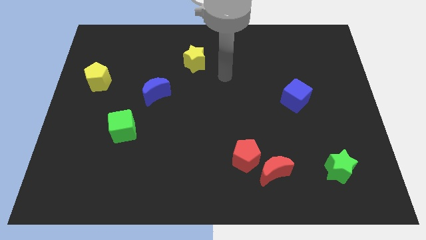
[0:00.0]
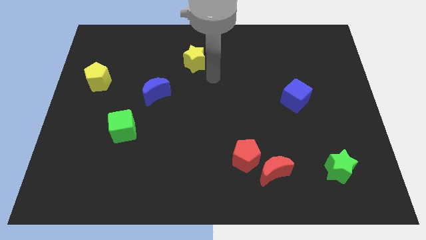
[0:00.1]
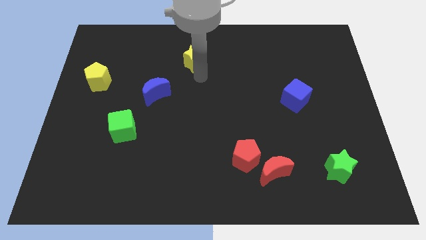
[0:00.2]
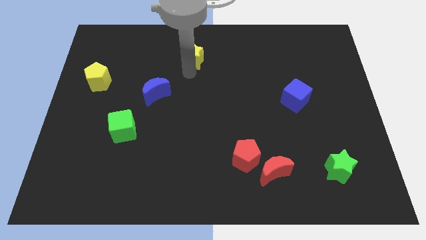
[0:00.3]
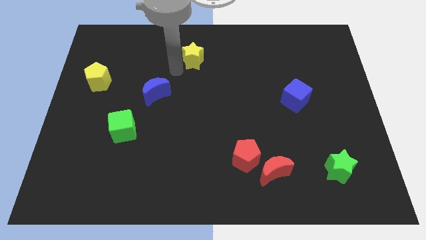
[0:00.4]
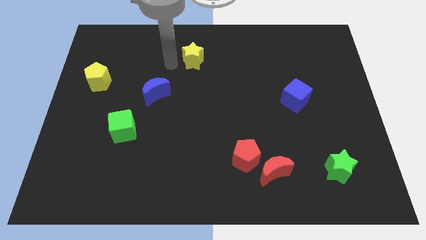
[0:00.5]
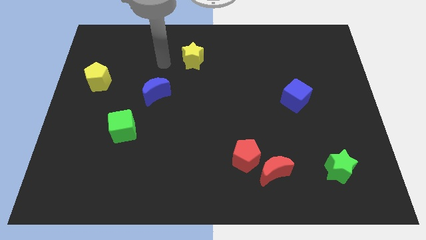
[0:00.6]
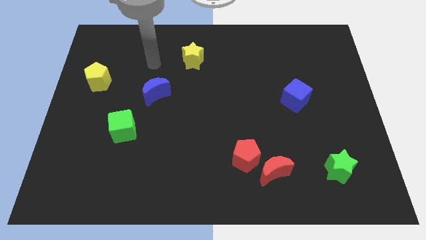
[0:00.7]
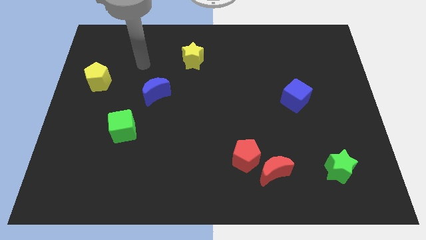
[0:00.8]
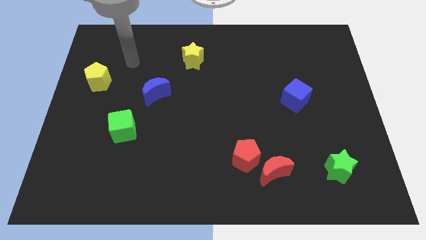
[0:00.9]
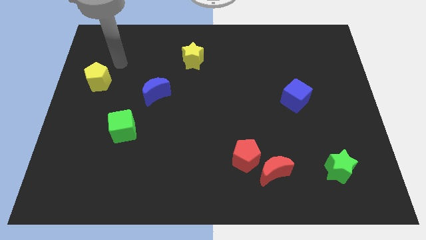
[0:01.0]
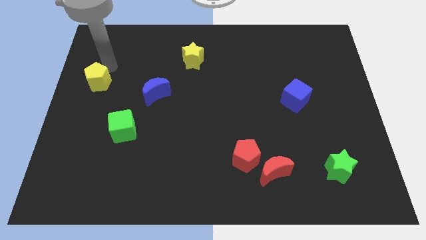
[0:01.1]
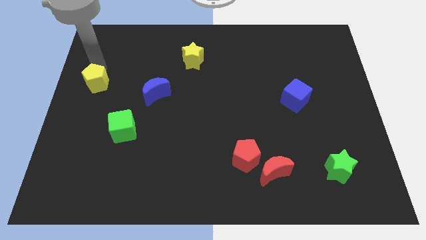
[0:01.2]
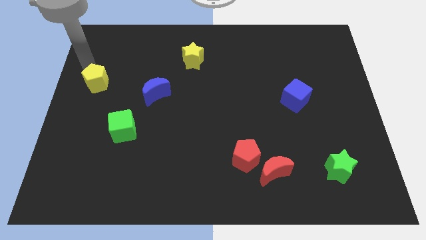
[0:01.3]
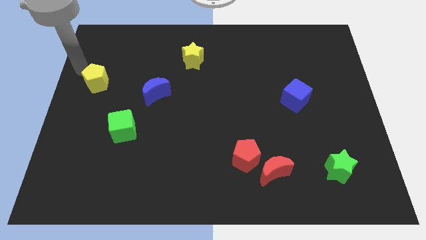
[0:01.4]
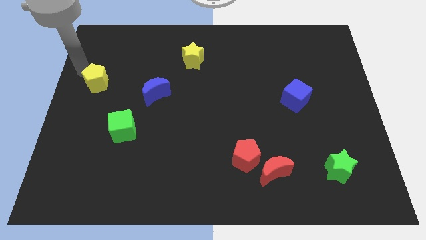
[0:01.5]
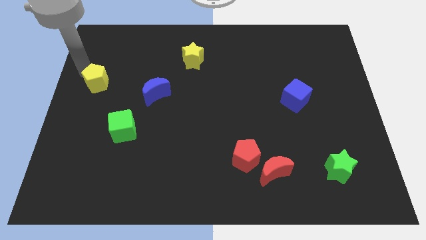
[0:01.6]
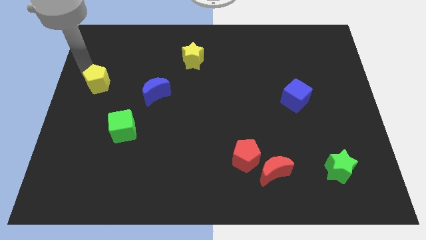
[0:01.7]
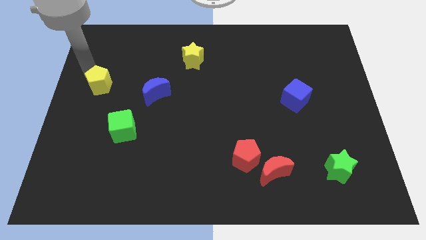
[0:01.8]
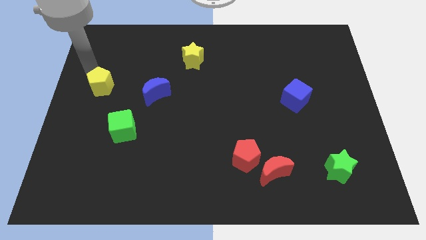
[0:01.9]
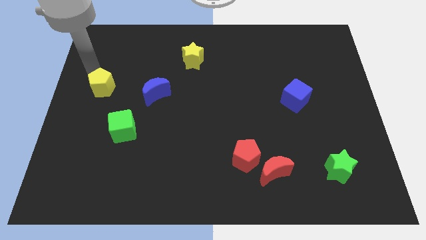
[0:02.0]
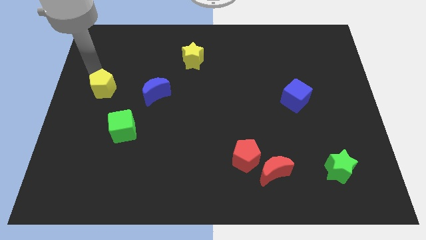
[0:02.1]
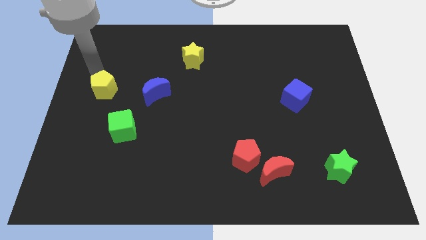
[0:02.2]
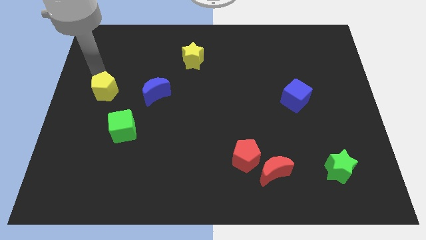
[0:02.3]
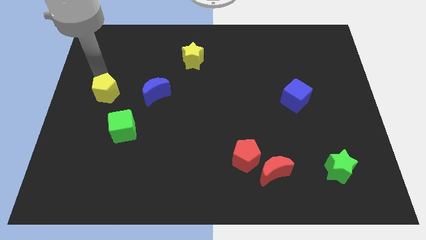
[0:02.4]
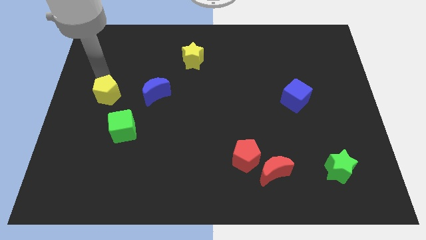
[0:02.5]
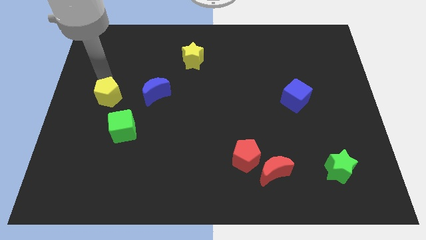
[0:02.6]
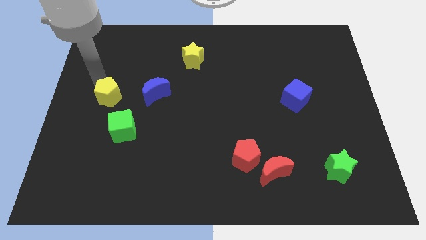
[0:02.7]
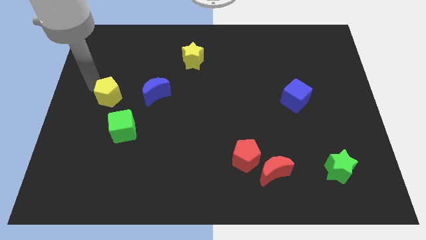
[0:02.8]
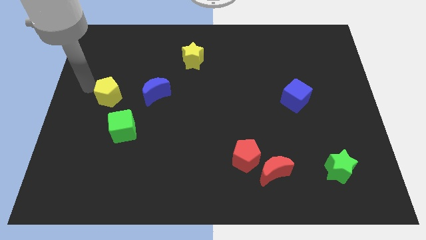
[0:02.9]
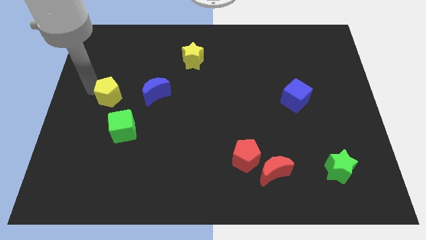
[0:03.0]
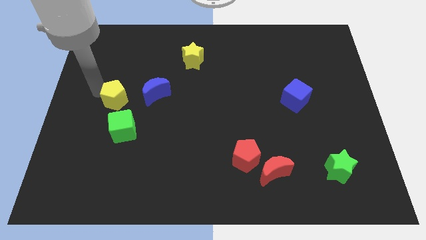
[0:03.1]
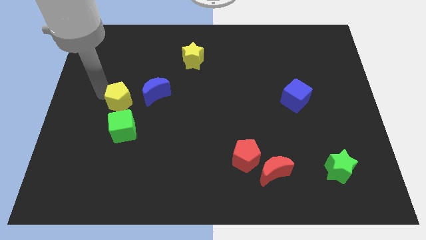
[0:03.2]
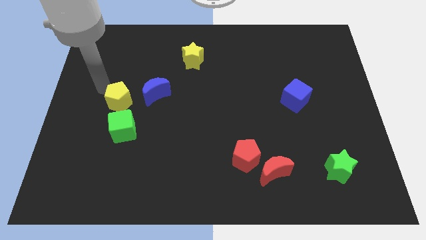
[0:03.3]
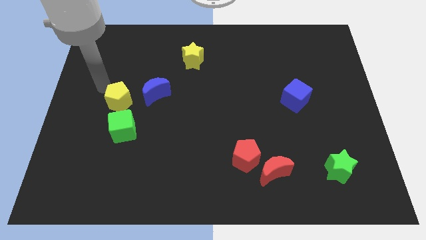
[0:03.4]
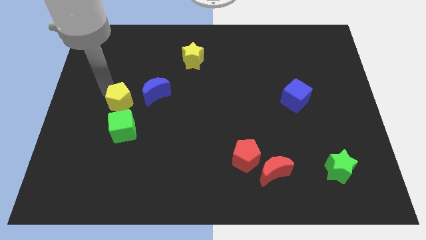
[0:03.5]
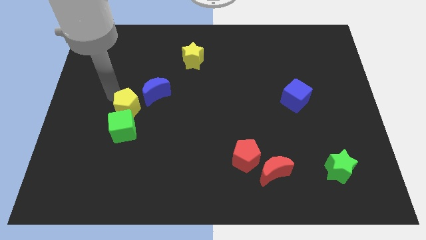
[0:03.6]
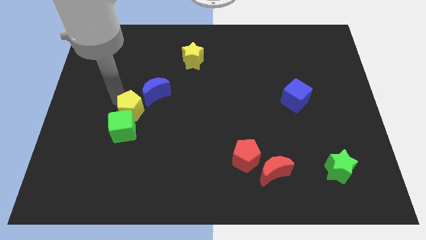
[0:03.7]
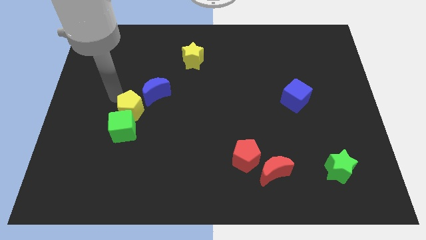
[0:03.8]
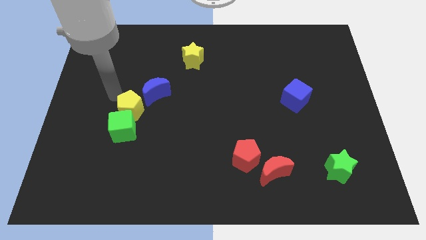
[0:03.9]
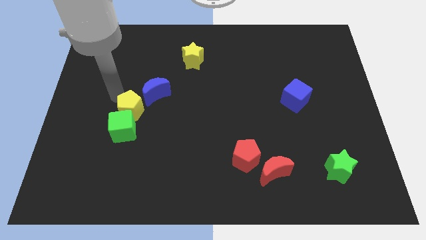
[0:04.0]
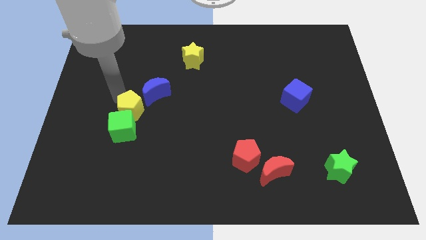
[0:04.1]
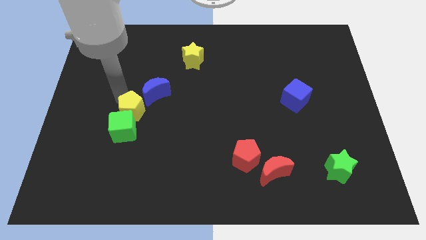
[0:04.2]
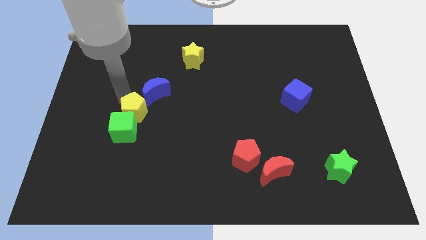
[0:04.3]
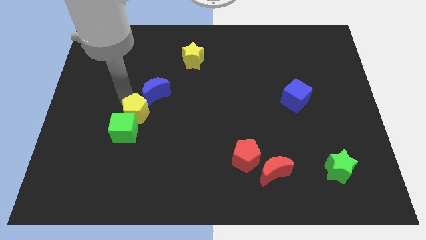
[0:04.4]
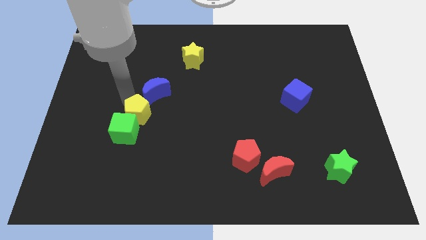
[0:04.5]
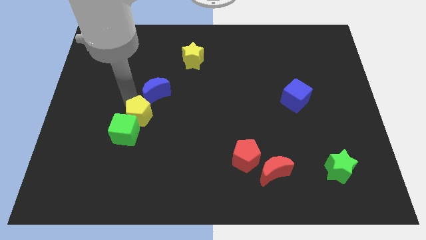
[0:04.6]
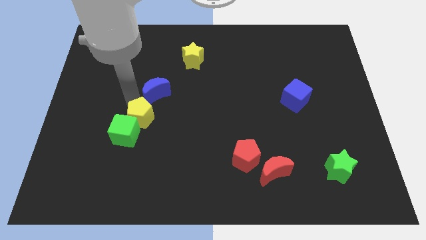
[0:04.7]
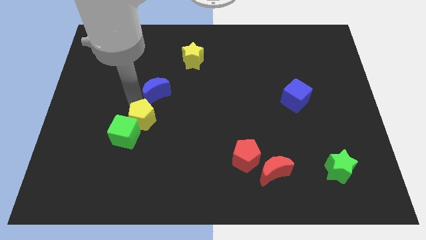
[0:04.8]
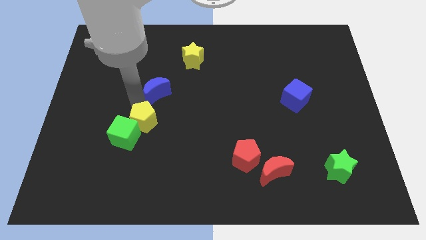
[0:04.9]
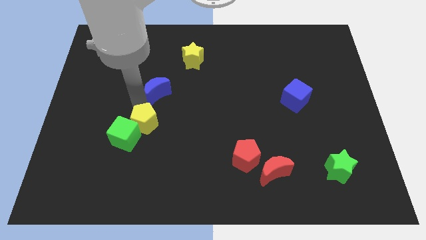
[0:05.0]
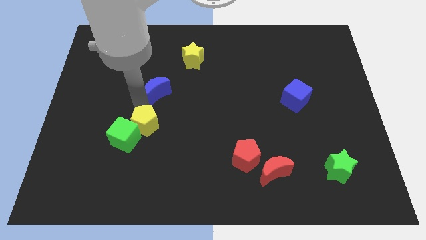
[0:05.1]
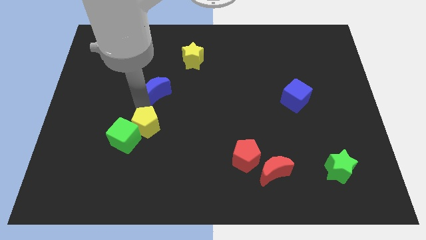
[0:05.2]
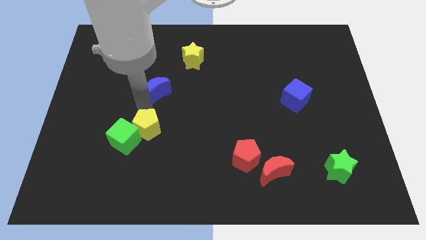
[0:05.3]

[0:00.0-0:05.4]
move the yellow pentagon downwards and then right

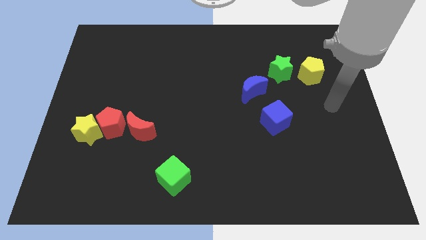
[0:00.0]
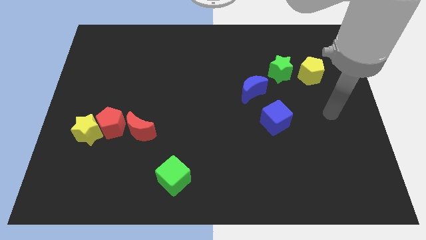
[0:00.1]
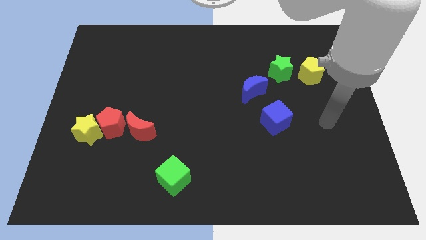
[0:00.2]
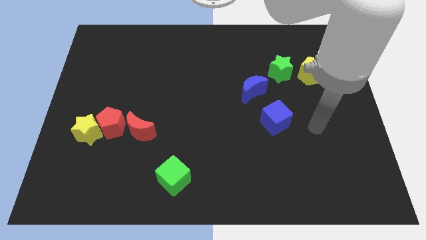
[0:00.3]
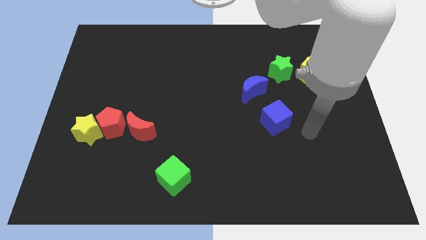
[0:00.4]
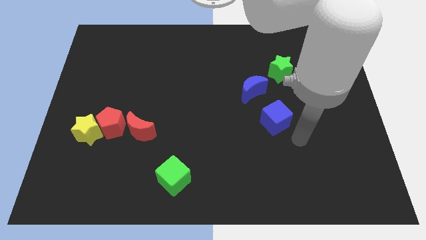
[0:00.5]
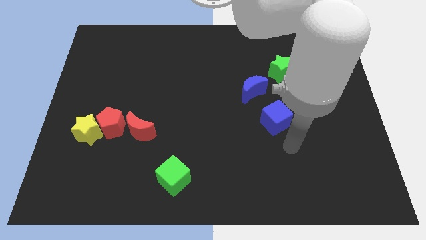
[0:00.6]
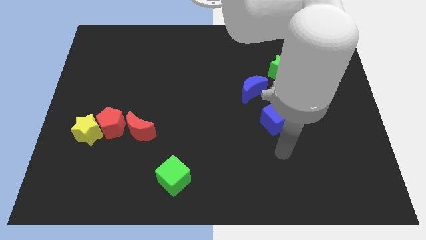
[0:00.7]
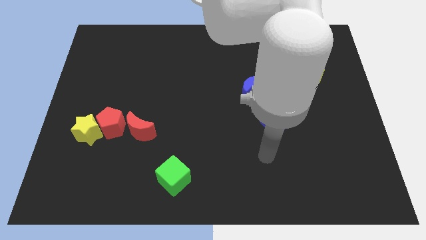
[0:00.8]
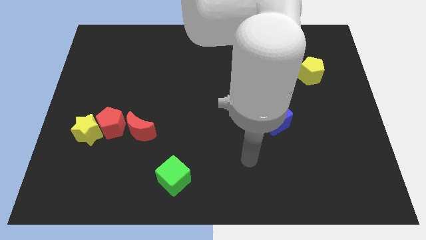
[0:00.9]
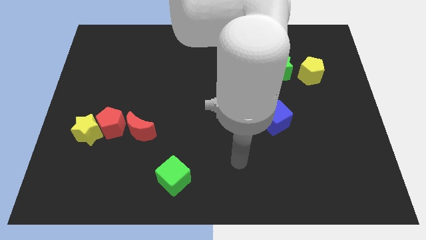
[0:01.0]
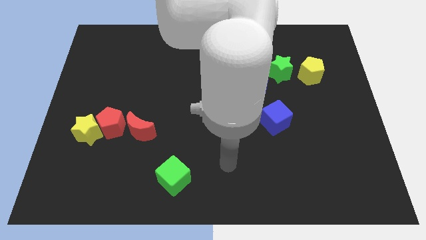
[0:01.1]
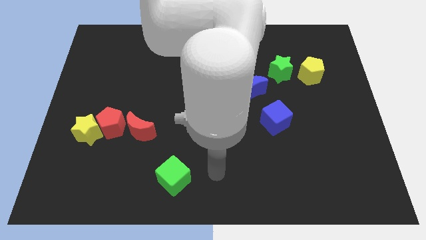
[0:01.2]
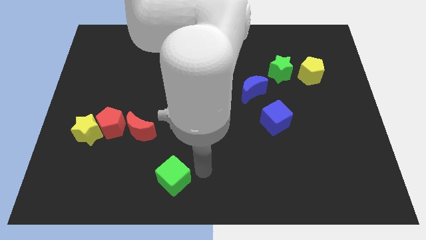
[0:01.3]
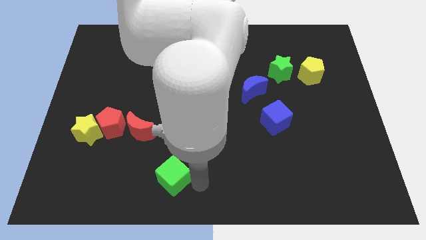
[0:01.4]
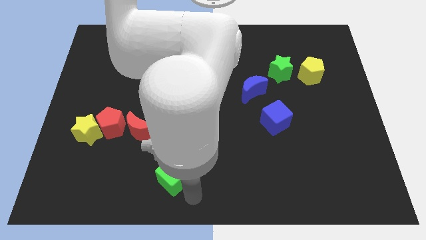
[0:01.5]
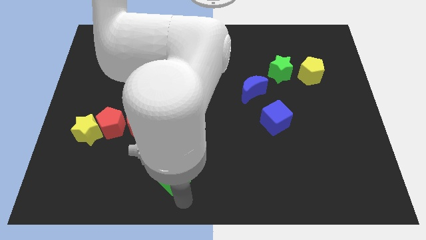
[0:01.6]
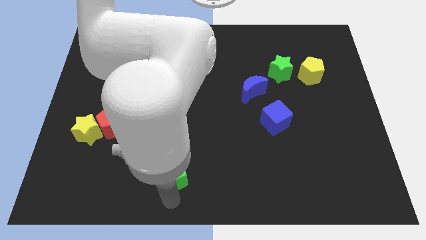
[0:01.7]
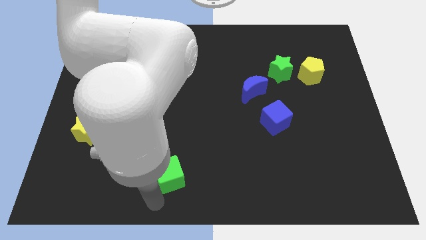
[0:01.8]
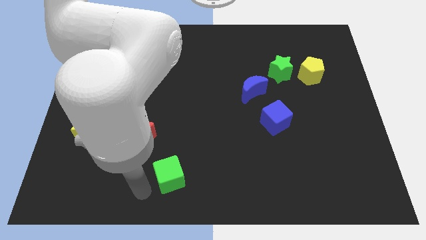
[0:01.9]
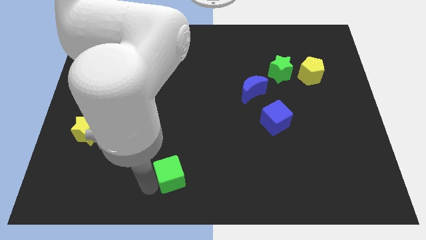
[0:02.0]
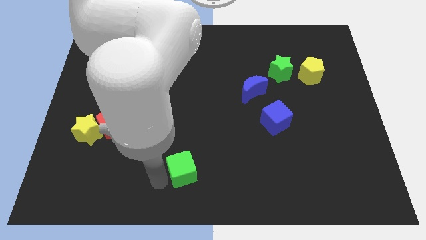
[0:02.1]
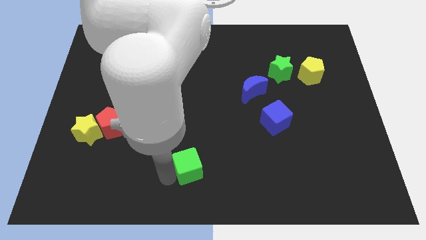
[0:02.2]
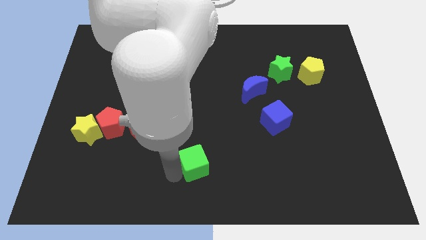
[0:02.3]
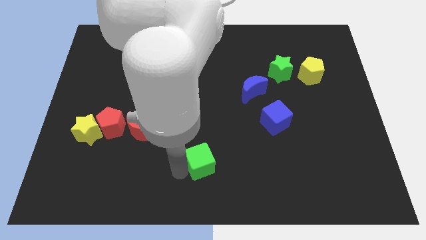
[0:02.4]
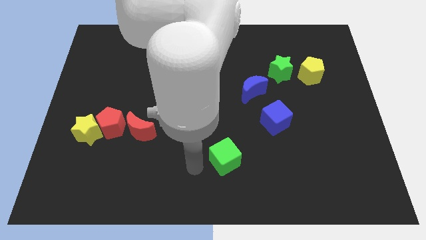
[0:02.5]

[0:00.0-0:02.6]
push the green cube upwards and then right somewhat
